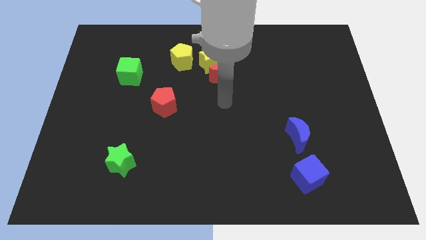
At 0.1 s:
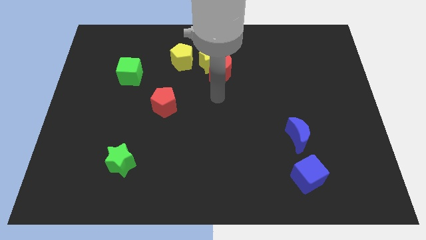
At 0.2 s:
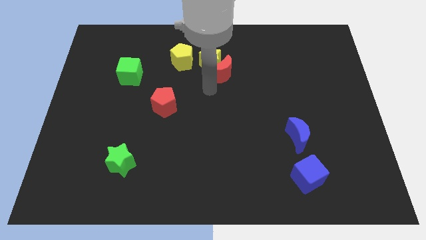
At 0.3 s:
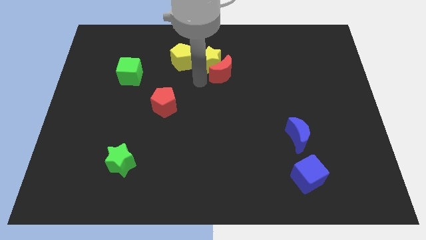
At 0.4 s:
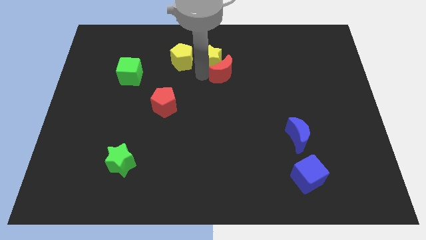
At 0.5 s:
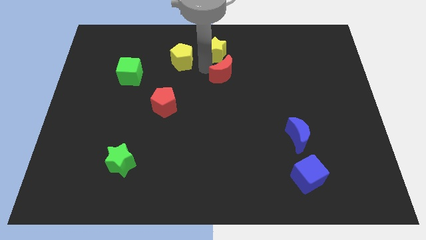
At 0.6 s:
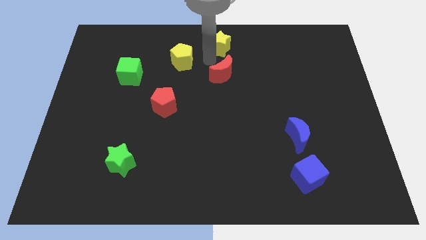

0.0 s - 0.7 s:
pull the red moon apart from the yellow star

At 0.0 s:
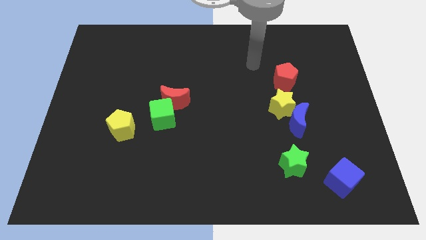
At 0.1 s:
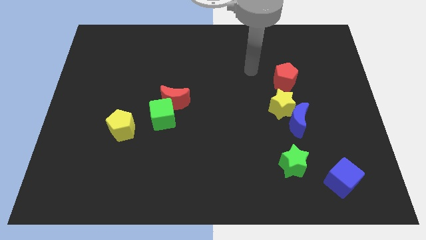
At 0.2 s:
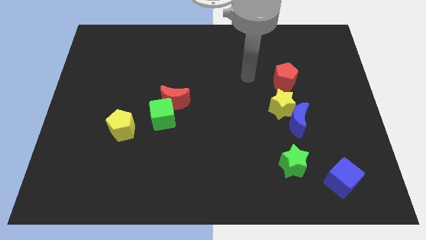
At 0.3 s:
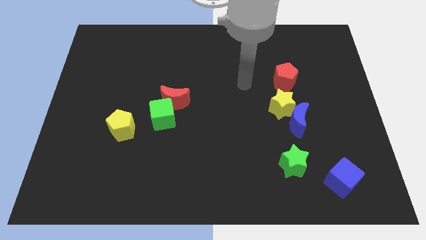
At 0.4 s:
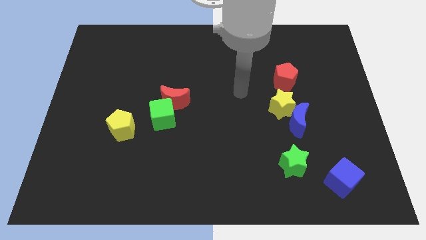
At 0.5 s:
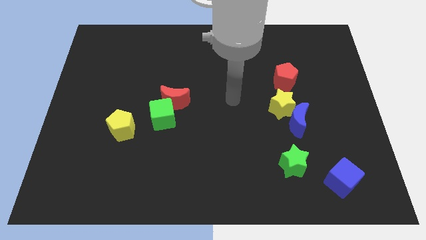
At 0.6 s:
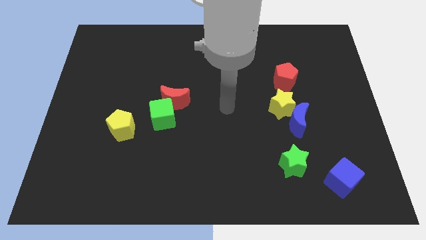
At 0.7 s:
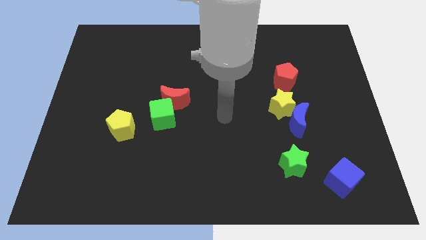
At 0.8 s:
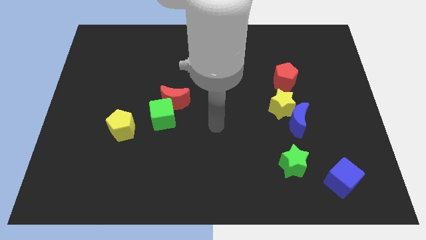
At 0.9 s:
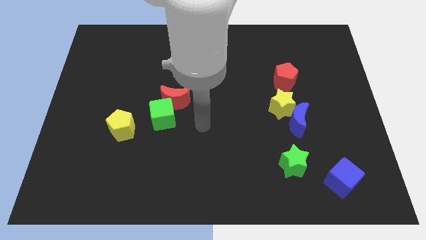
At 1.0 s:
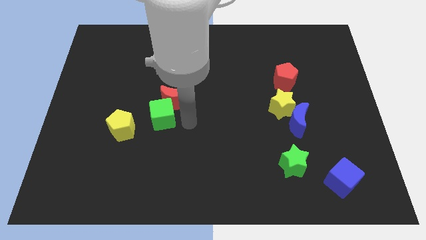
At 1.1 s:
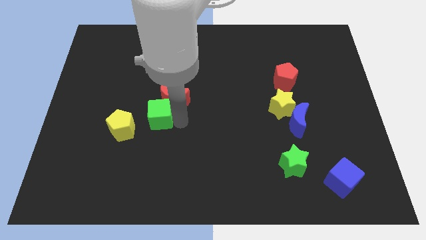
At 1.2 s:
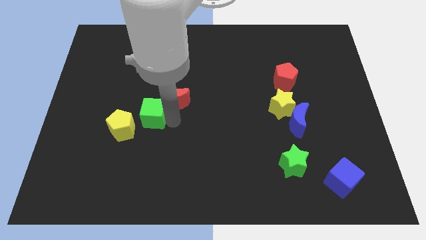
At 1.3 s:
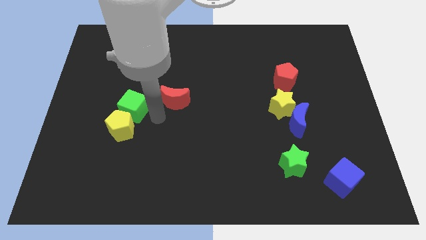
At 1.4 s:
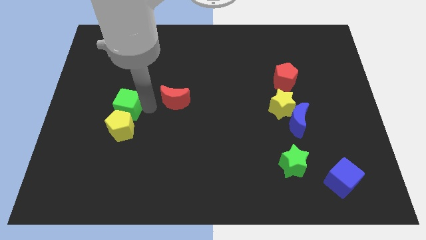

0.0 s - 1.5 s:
move the red moon away from the green cube

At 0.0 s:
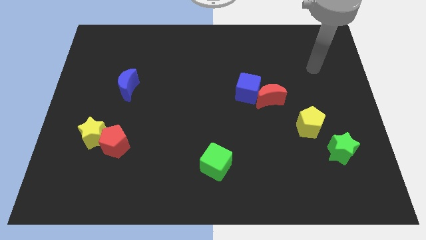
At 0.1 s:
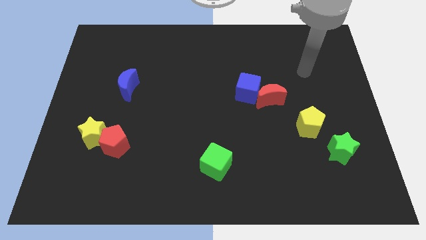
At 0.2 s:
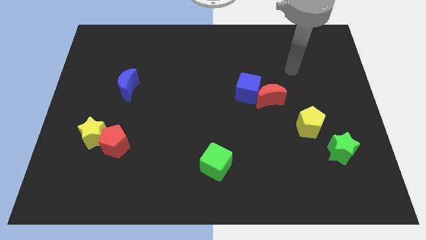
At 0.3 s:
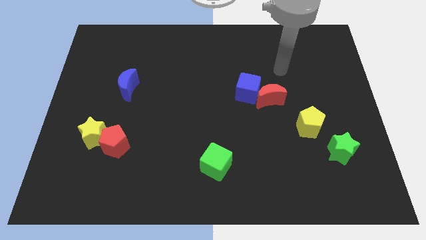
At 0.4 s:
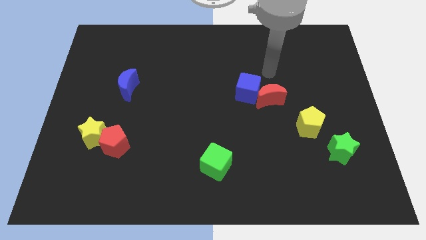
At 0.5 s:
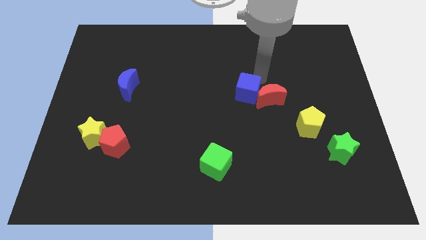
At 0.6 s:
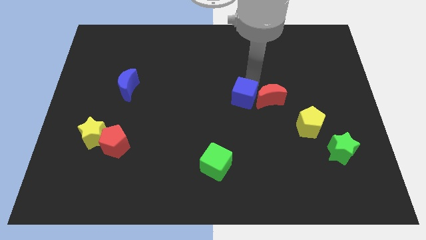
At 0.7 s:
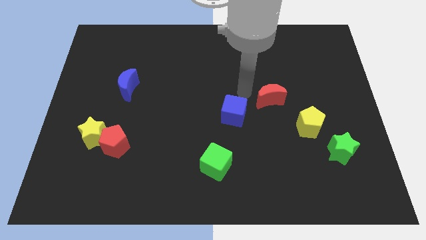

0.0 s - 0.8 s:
separate the red moon from the blue cube

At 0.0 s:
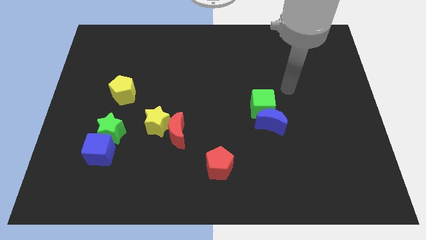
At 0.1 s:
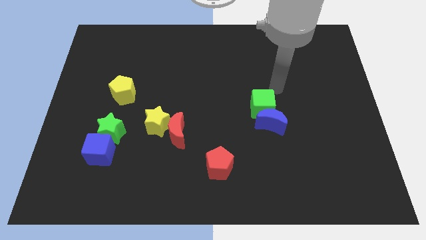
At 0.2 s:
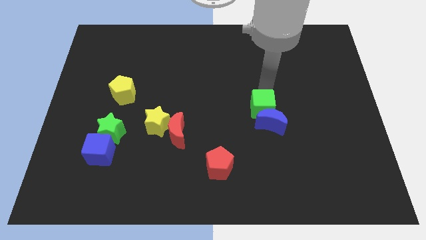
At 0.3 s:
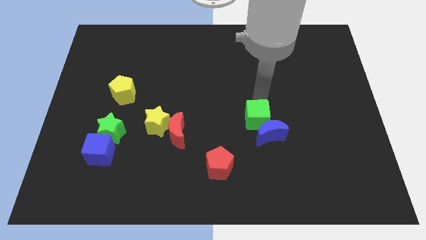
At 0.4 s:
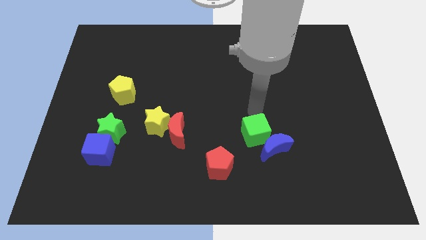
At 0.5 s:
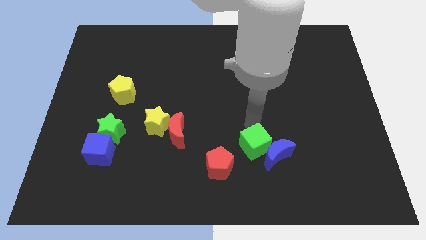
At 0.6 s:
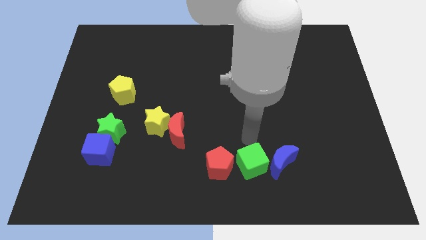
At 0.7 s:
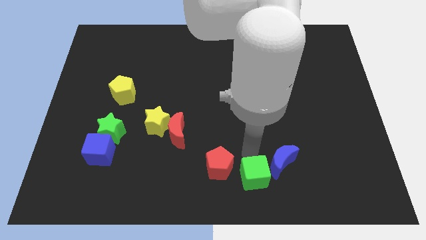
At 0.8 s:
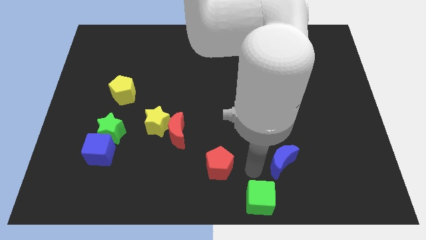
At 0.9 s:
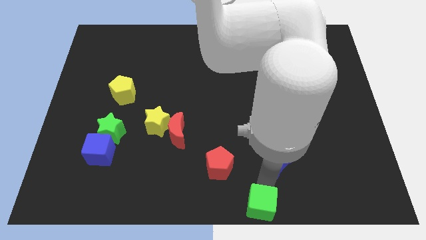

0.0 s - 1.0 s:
separate the blue moon from the green cube

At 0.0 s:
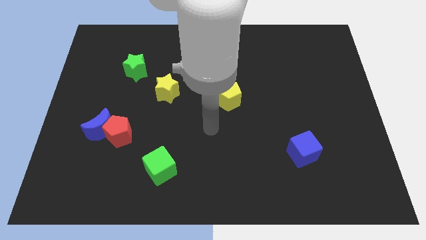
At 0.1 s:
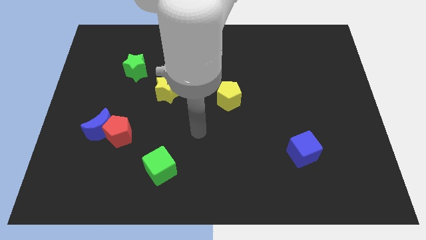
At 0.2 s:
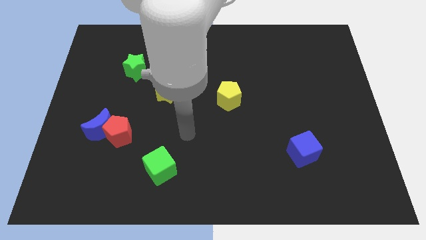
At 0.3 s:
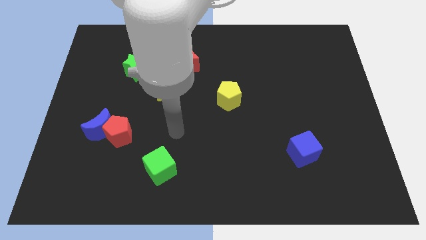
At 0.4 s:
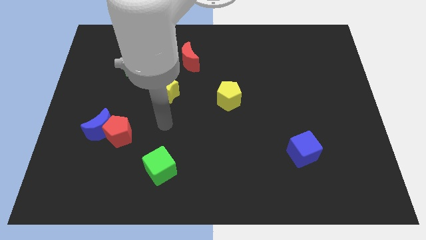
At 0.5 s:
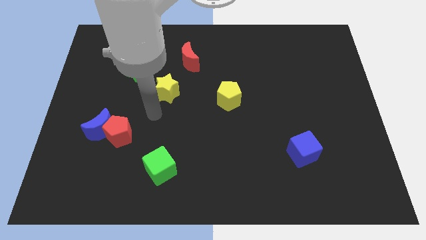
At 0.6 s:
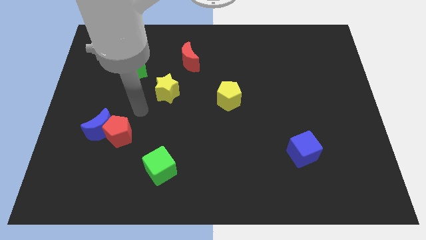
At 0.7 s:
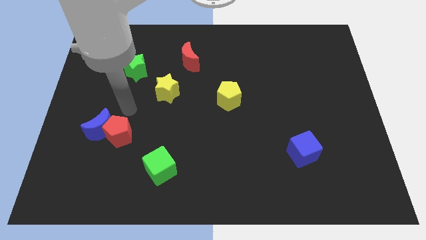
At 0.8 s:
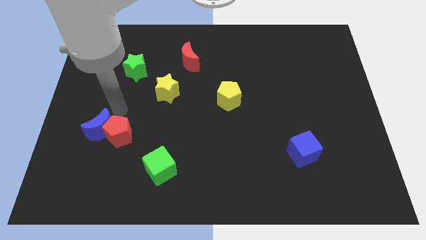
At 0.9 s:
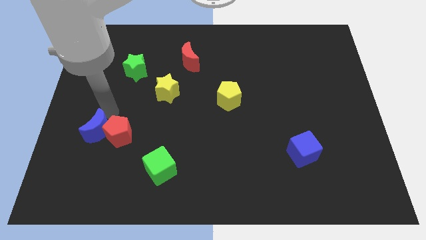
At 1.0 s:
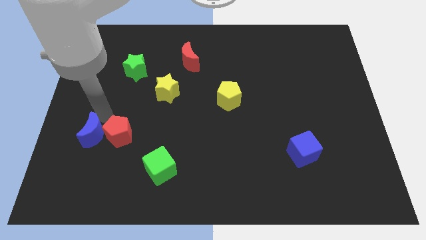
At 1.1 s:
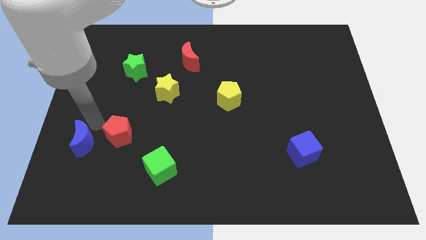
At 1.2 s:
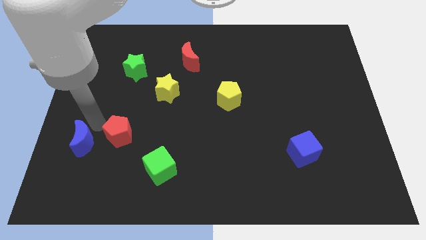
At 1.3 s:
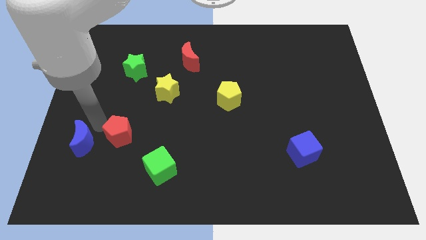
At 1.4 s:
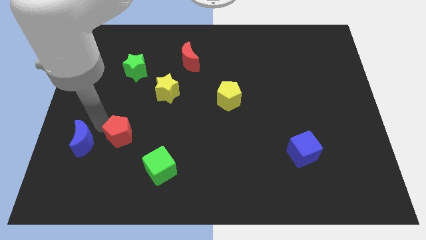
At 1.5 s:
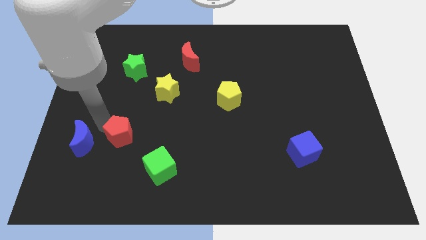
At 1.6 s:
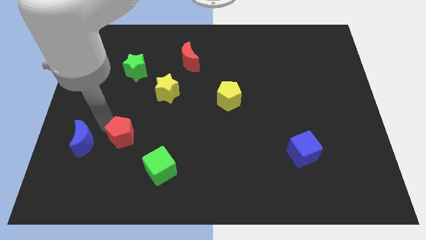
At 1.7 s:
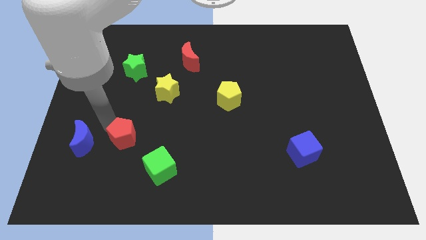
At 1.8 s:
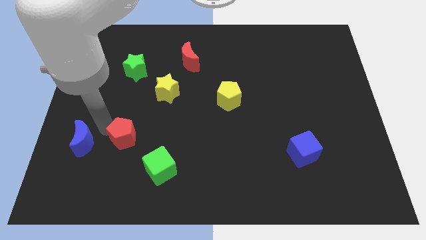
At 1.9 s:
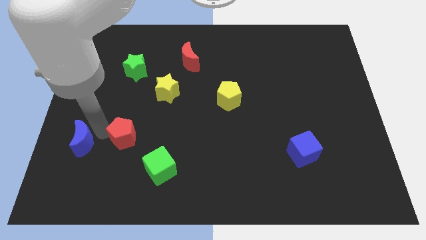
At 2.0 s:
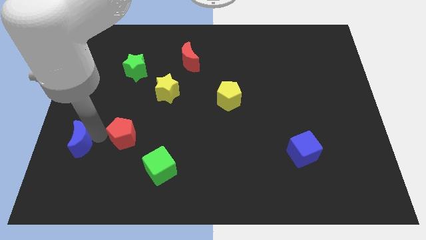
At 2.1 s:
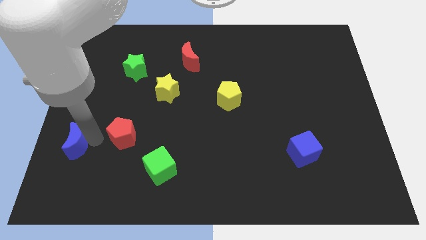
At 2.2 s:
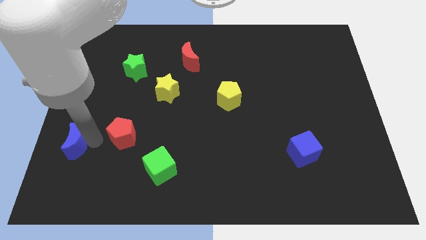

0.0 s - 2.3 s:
move the red pentagon away from the blue moon

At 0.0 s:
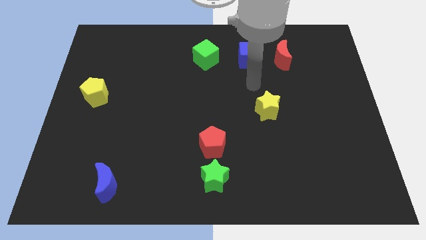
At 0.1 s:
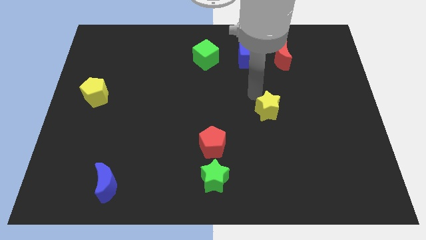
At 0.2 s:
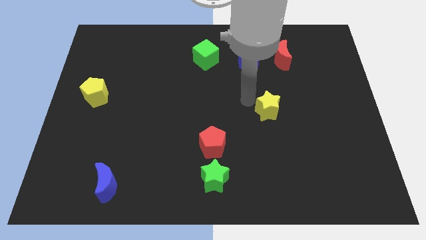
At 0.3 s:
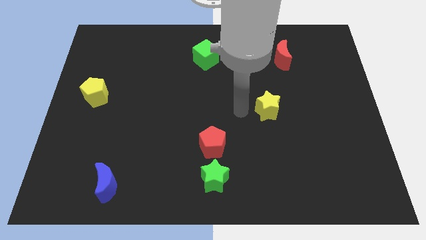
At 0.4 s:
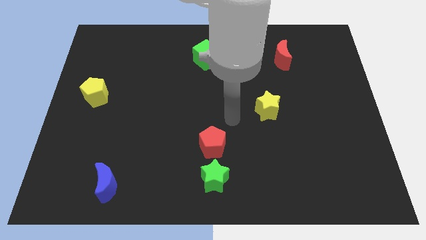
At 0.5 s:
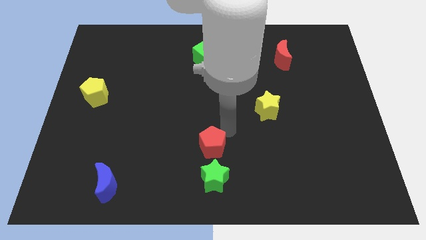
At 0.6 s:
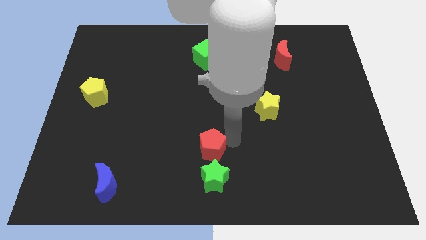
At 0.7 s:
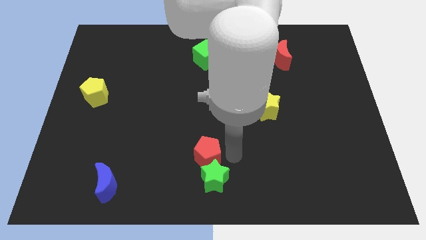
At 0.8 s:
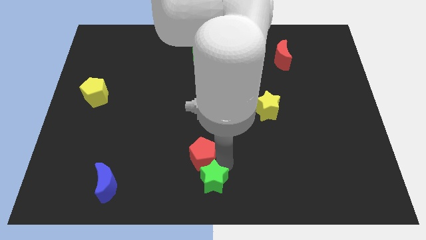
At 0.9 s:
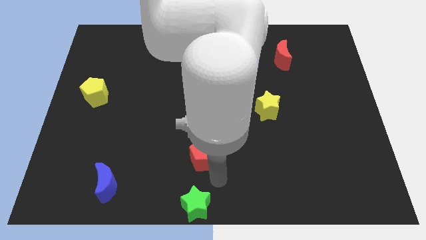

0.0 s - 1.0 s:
separate the red pentagon from the green star

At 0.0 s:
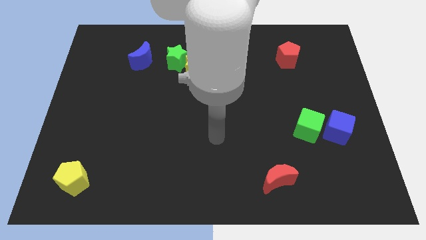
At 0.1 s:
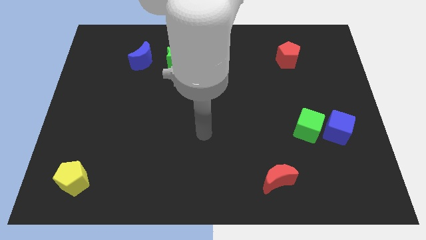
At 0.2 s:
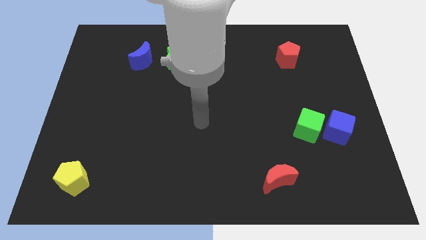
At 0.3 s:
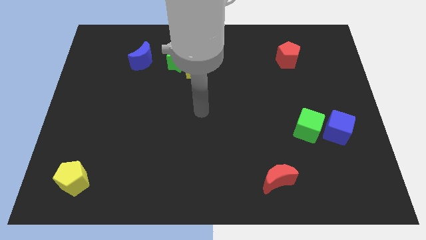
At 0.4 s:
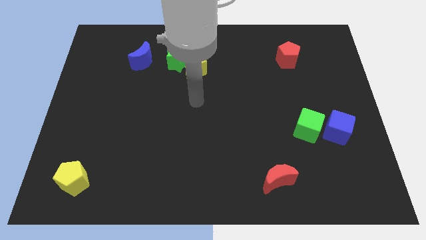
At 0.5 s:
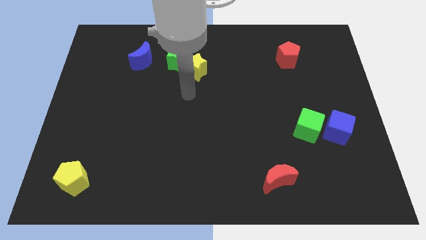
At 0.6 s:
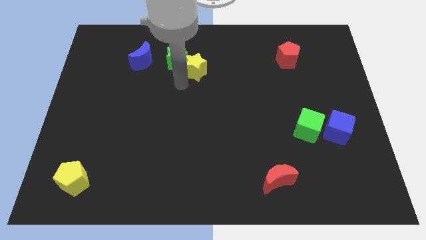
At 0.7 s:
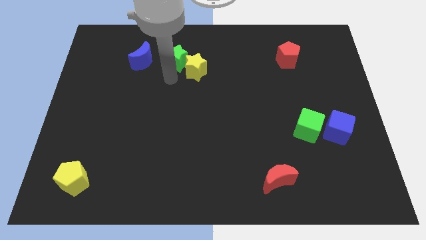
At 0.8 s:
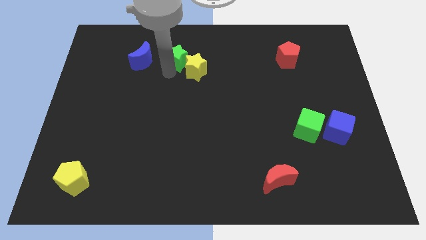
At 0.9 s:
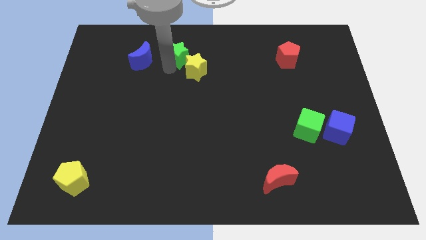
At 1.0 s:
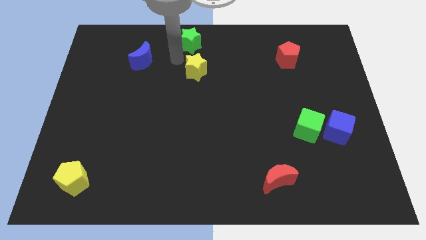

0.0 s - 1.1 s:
pull the yellow star apart from the green star

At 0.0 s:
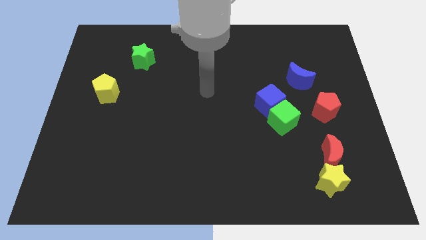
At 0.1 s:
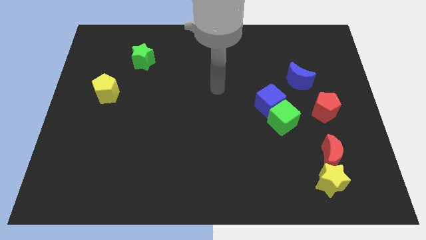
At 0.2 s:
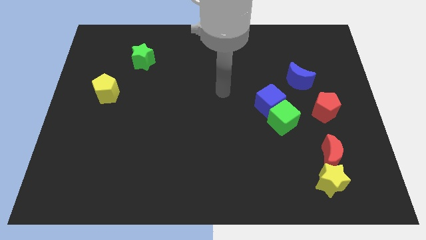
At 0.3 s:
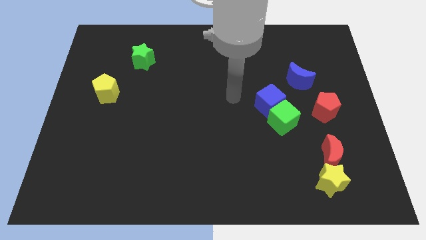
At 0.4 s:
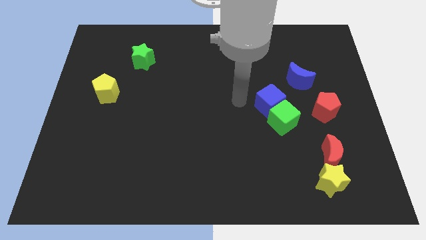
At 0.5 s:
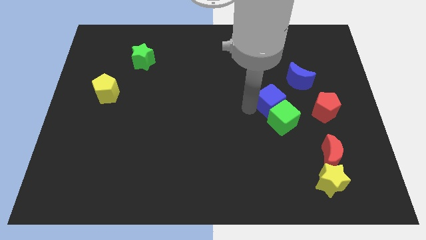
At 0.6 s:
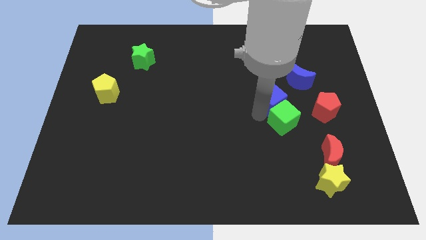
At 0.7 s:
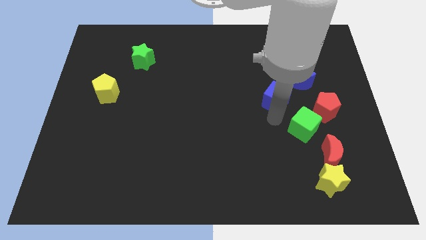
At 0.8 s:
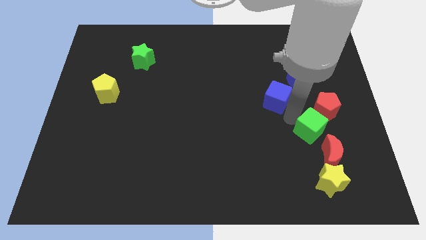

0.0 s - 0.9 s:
pull the blue cube apart from the green cube
